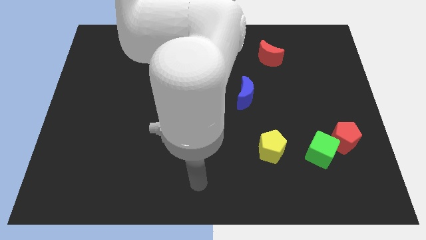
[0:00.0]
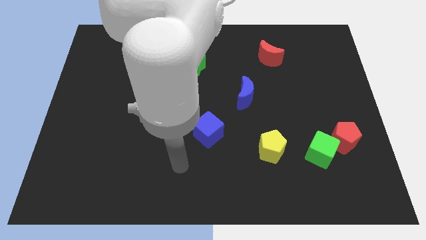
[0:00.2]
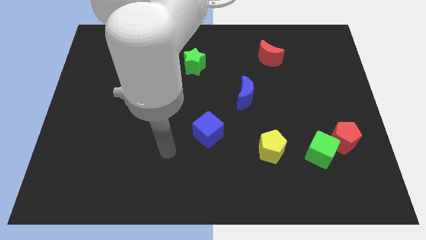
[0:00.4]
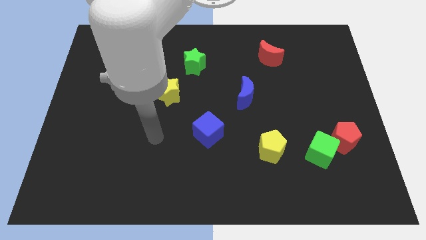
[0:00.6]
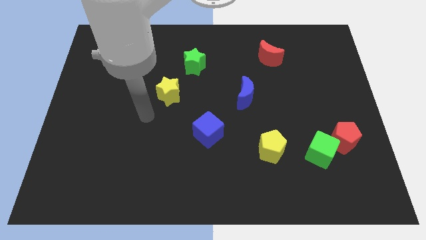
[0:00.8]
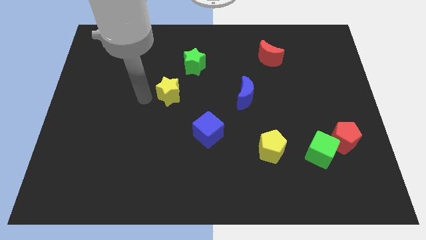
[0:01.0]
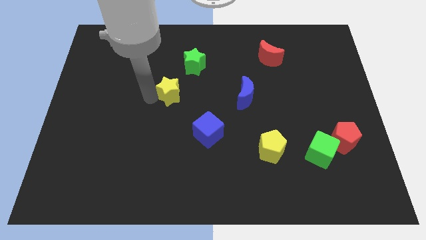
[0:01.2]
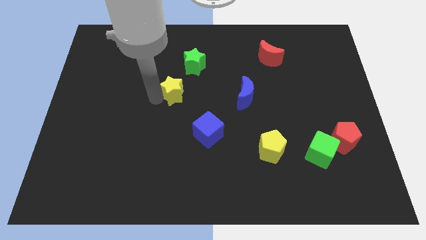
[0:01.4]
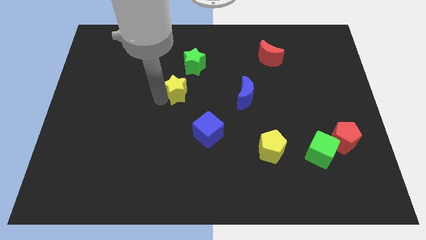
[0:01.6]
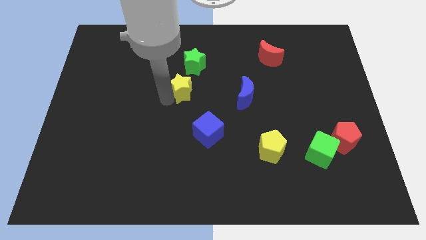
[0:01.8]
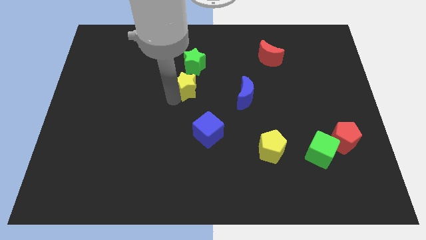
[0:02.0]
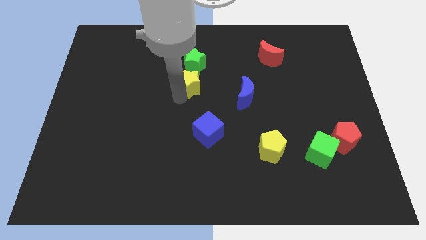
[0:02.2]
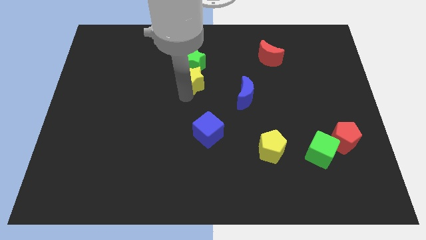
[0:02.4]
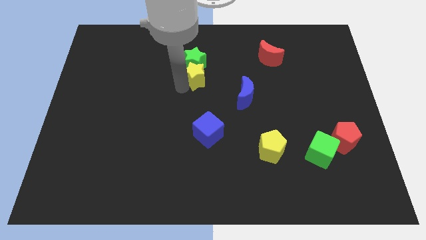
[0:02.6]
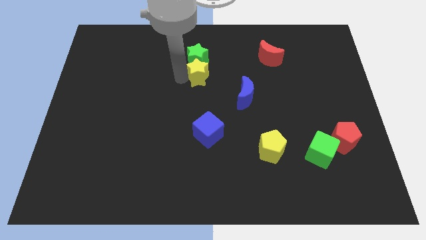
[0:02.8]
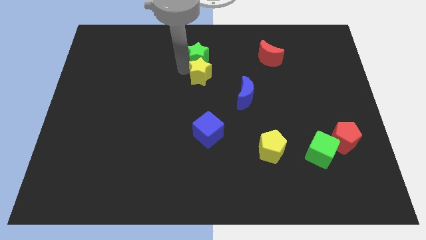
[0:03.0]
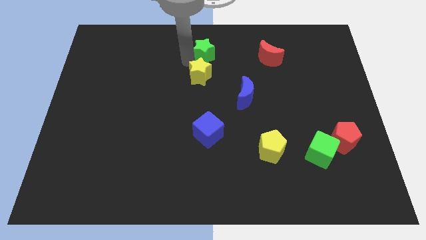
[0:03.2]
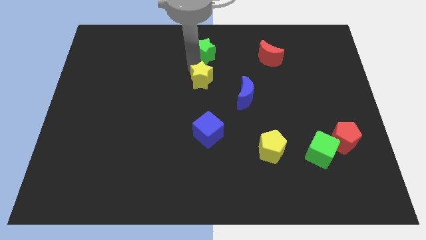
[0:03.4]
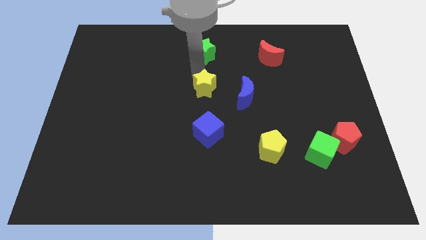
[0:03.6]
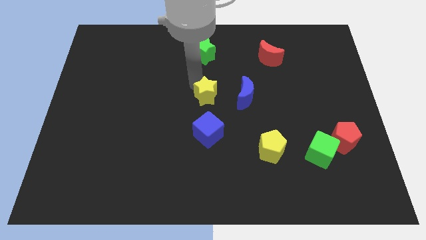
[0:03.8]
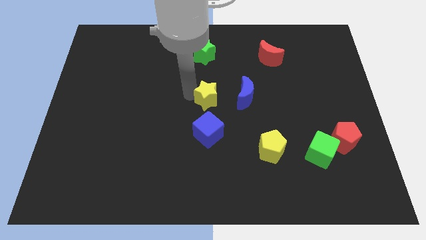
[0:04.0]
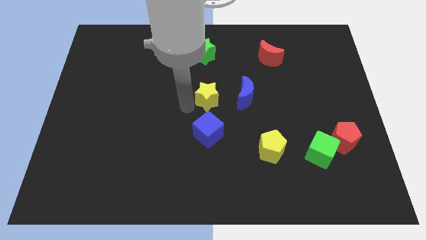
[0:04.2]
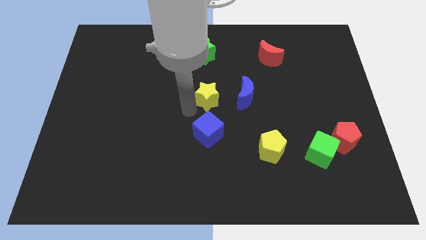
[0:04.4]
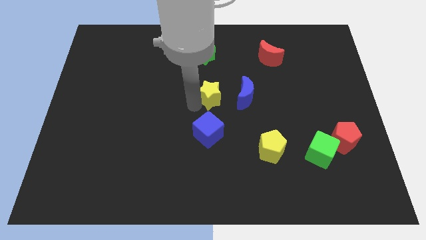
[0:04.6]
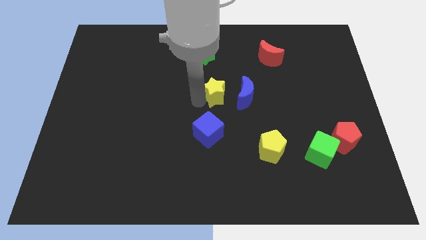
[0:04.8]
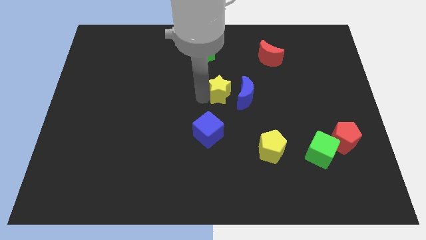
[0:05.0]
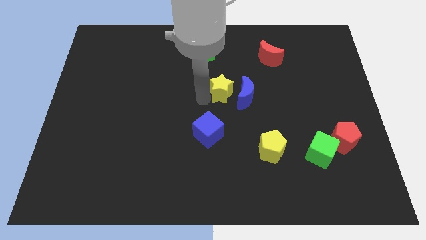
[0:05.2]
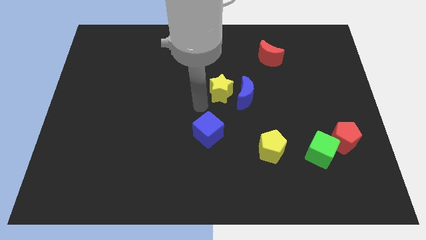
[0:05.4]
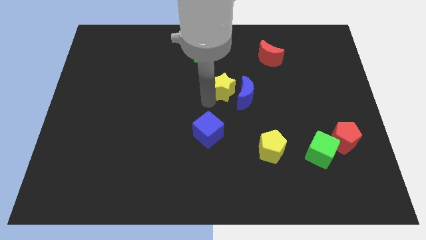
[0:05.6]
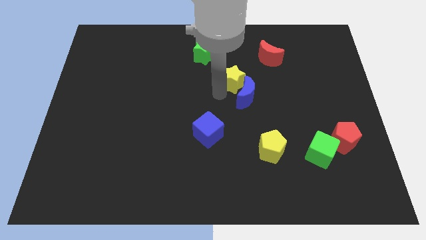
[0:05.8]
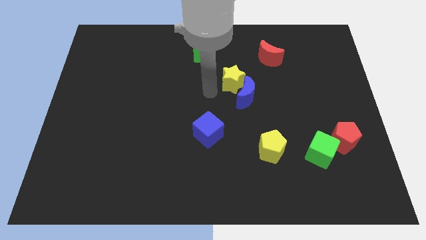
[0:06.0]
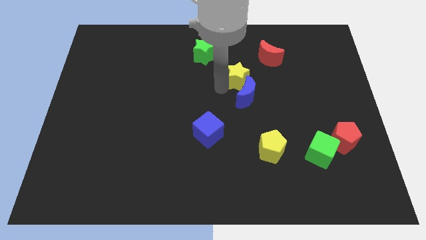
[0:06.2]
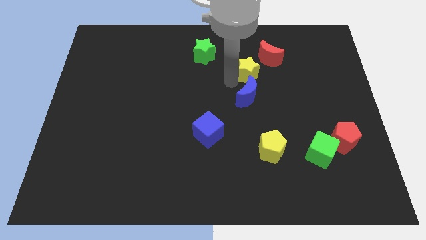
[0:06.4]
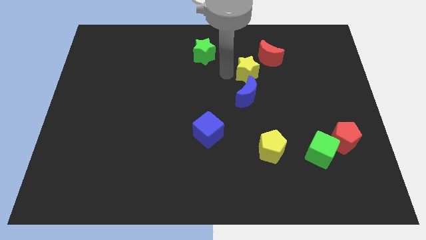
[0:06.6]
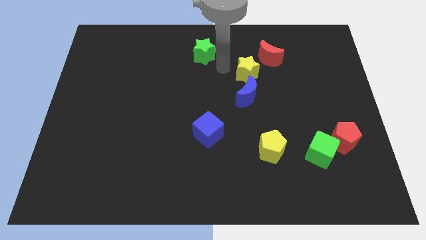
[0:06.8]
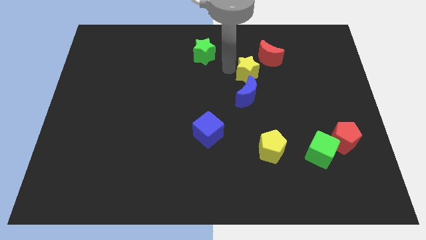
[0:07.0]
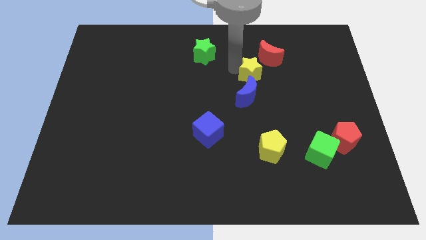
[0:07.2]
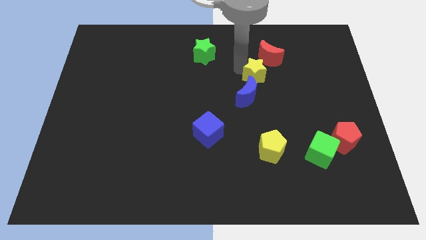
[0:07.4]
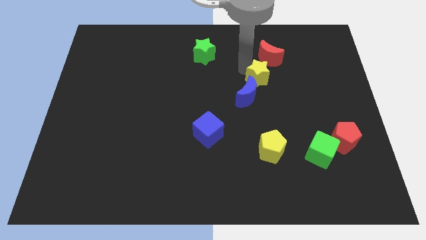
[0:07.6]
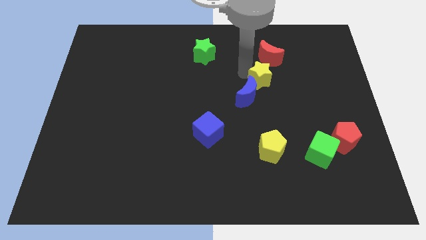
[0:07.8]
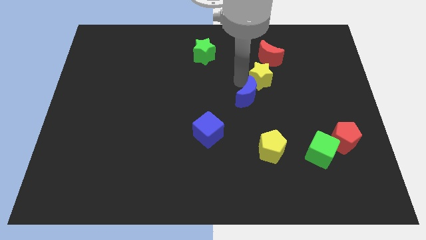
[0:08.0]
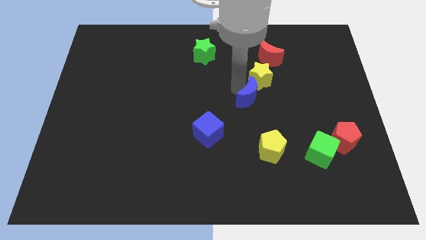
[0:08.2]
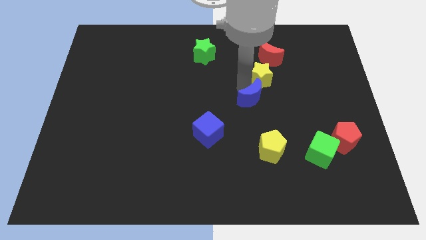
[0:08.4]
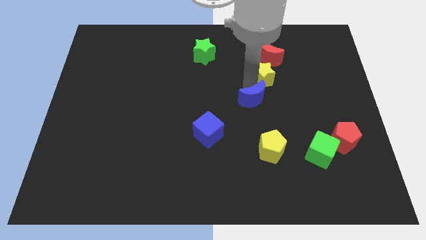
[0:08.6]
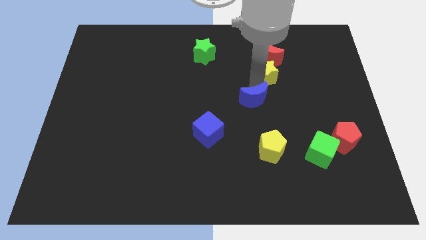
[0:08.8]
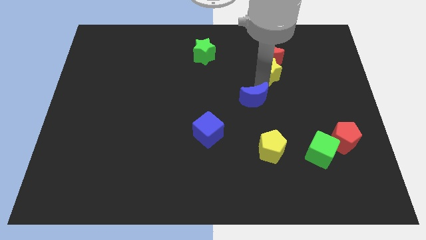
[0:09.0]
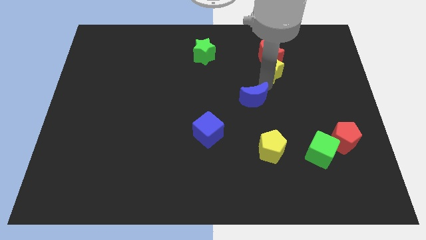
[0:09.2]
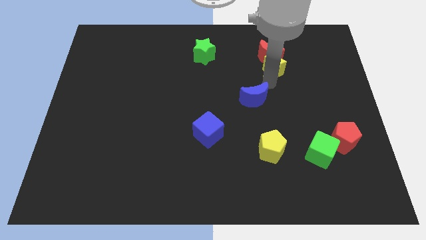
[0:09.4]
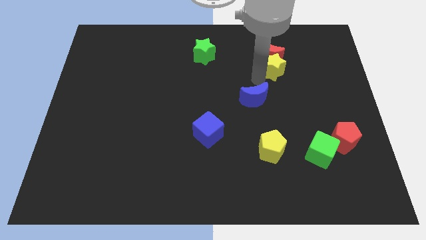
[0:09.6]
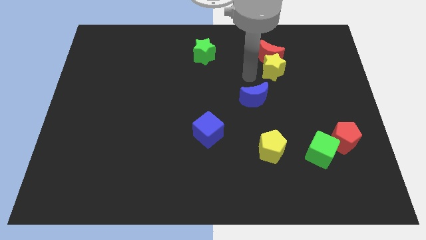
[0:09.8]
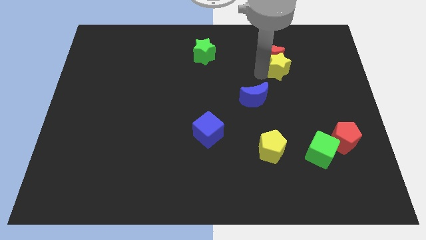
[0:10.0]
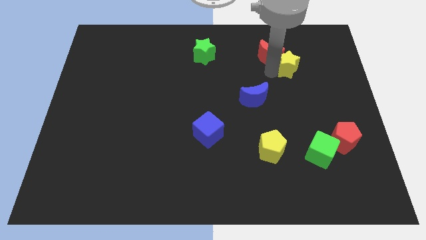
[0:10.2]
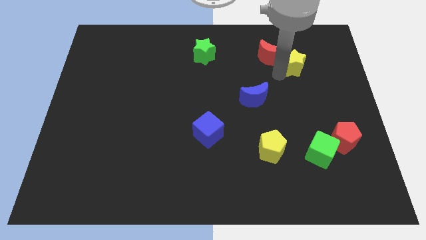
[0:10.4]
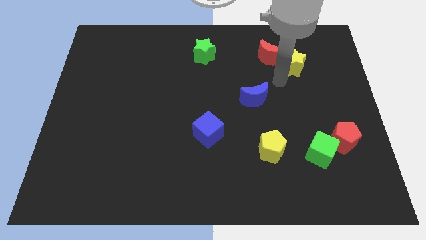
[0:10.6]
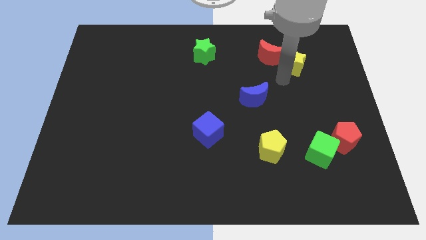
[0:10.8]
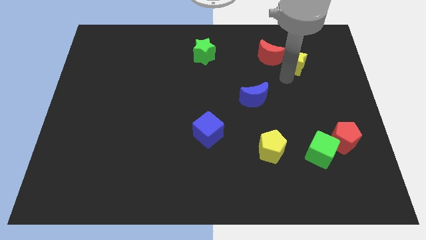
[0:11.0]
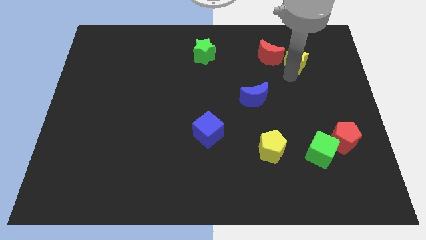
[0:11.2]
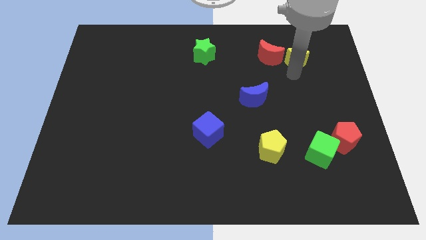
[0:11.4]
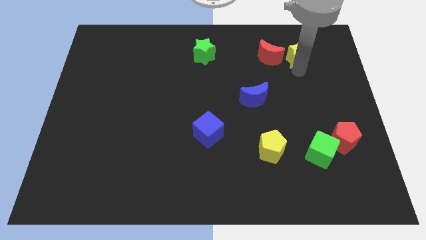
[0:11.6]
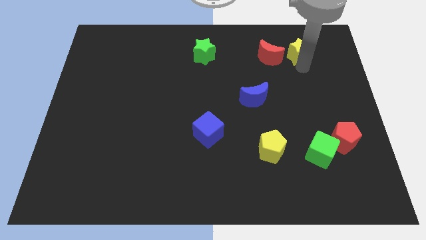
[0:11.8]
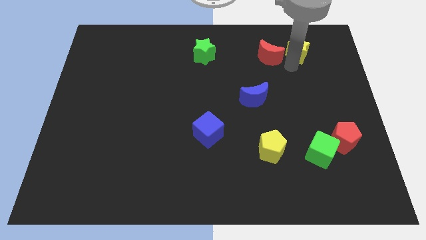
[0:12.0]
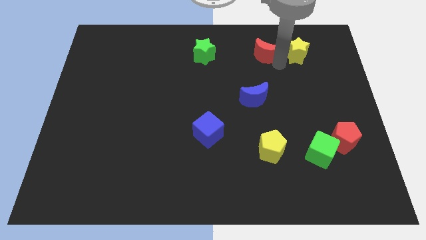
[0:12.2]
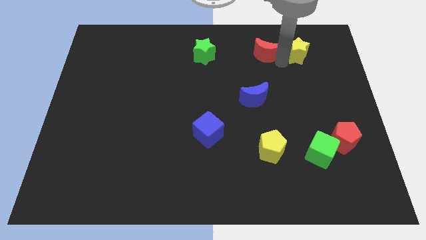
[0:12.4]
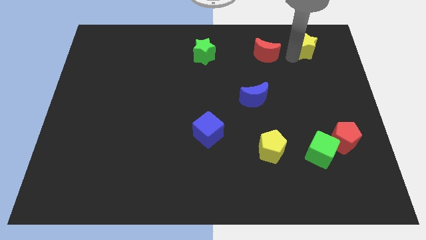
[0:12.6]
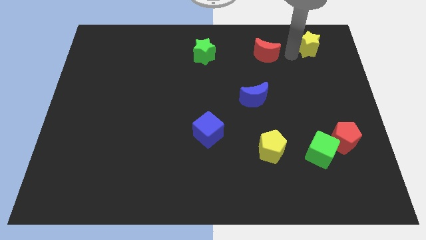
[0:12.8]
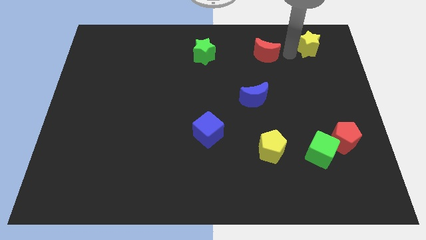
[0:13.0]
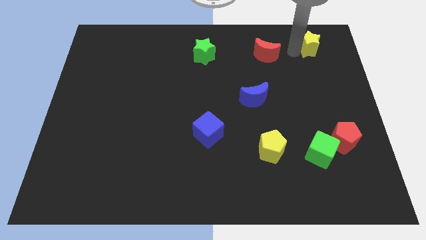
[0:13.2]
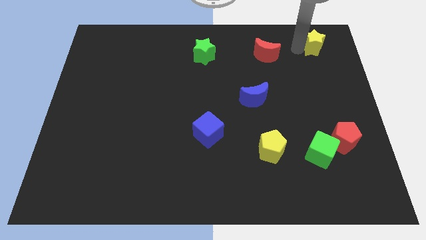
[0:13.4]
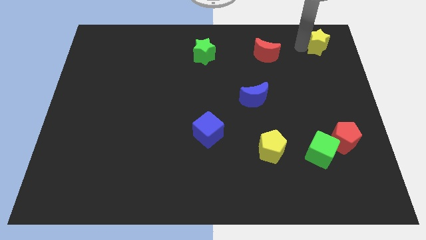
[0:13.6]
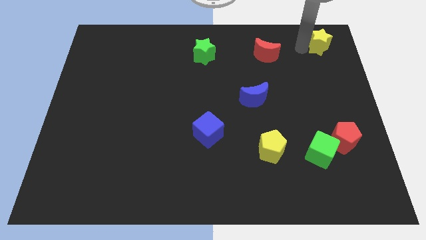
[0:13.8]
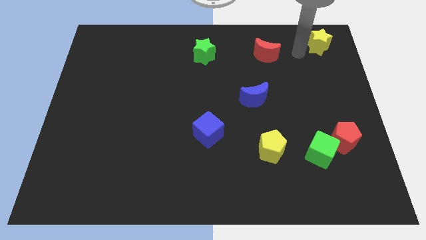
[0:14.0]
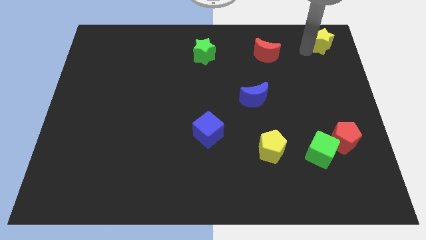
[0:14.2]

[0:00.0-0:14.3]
put the yellow star to the upper right corner
